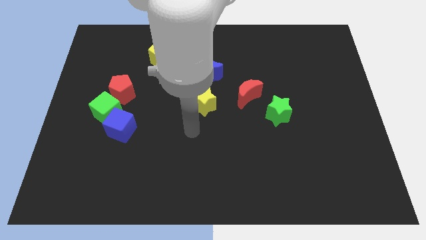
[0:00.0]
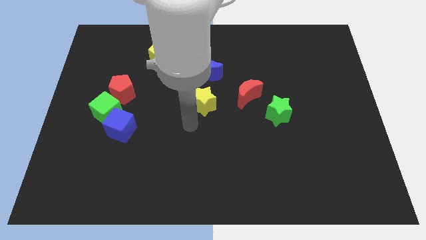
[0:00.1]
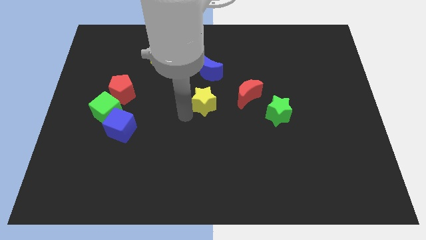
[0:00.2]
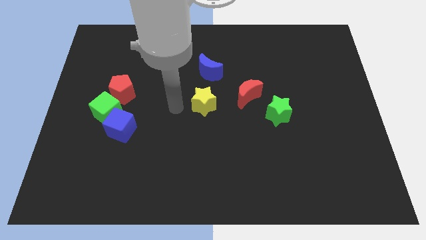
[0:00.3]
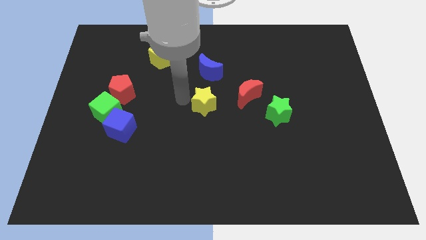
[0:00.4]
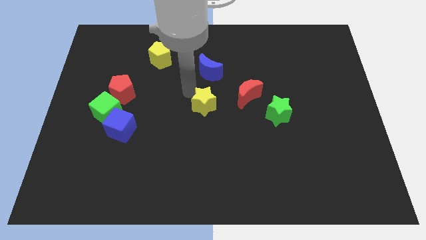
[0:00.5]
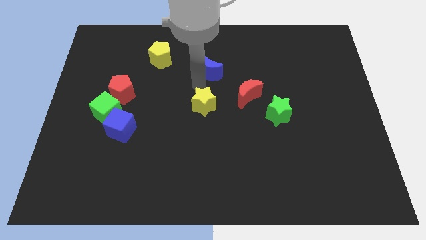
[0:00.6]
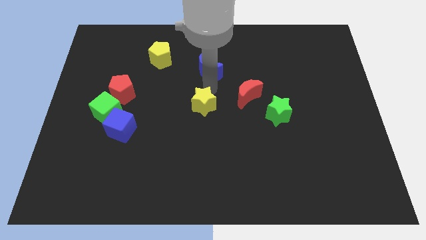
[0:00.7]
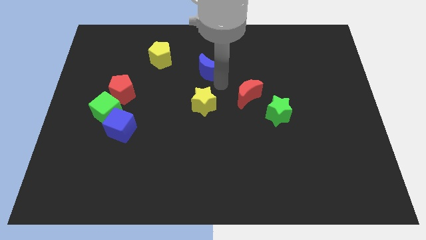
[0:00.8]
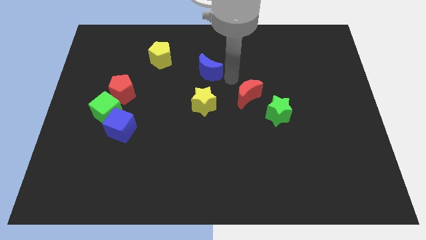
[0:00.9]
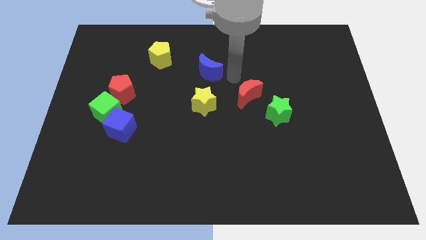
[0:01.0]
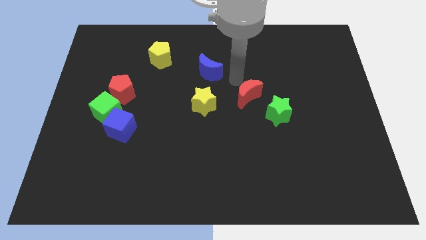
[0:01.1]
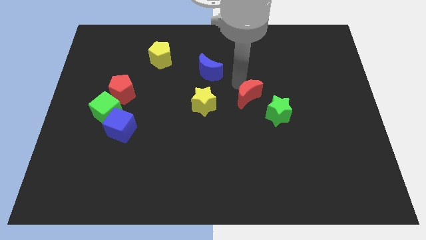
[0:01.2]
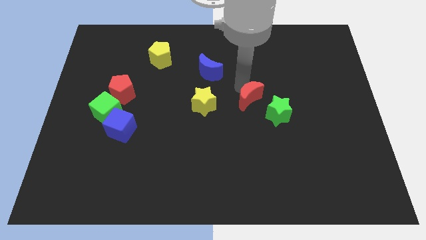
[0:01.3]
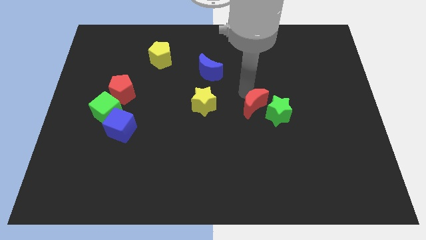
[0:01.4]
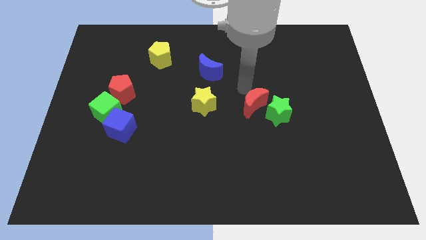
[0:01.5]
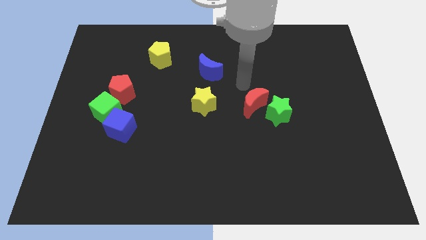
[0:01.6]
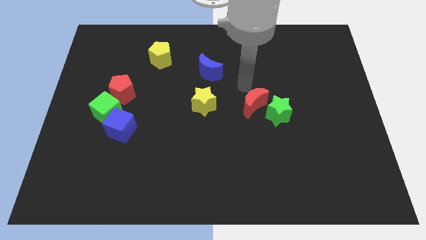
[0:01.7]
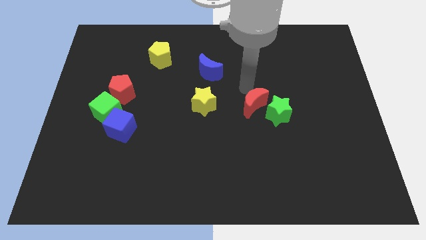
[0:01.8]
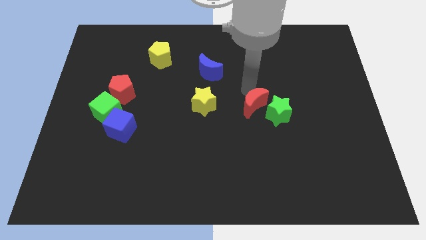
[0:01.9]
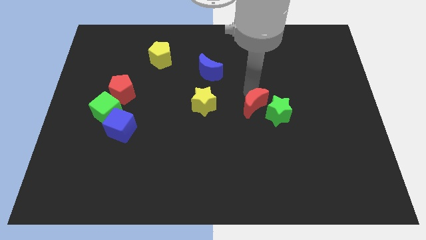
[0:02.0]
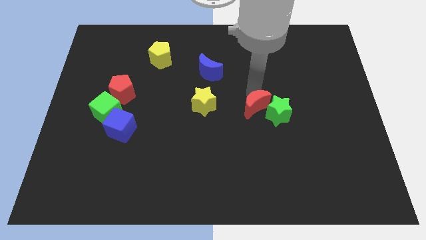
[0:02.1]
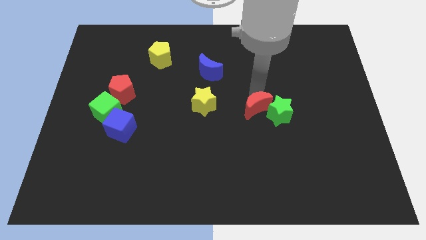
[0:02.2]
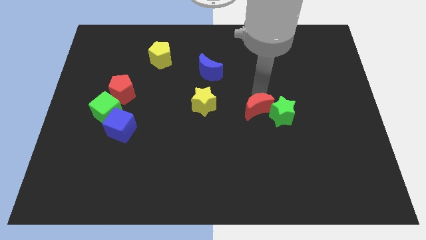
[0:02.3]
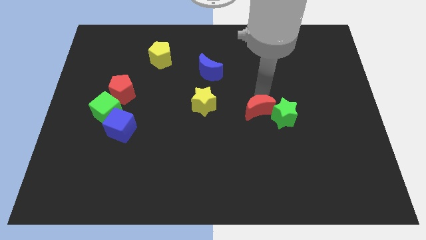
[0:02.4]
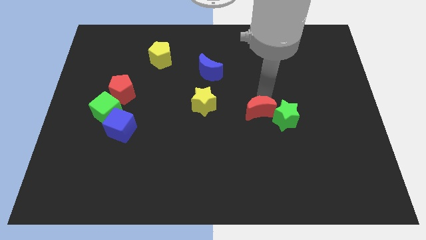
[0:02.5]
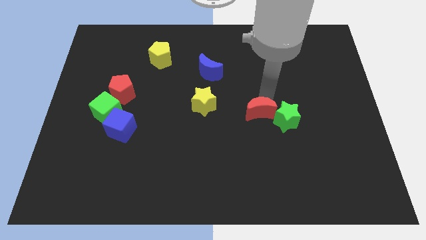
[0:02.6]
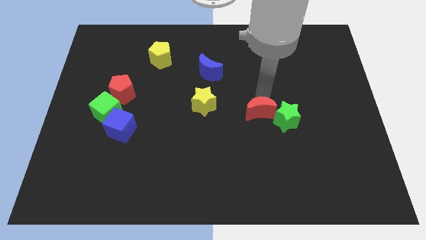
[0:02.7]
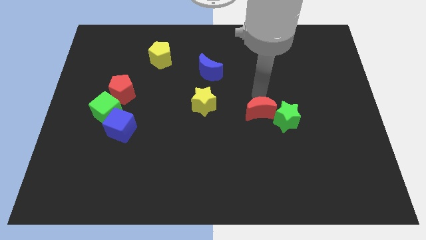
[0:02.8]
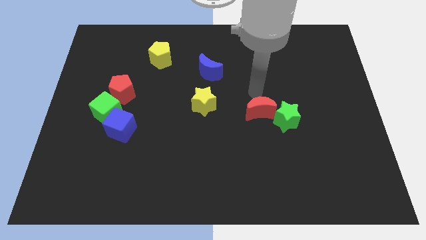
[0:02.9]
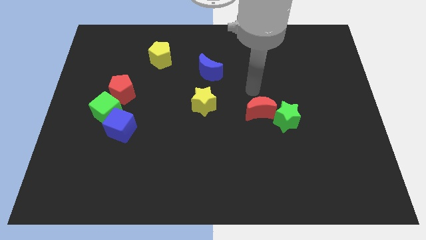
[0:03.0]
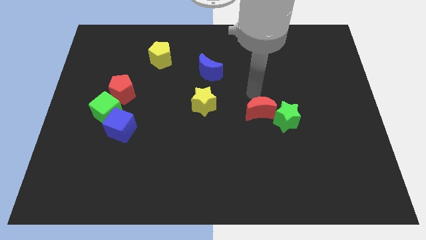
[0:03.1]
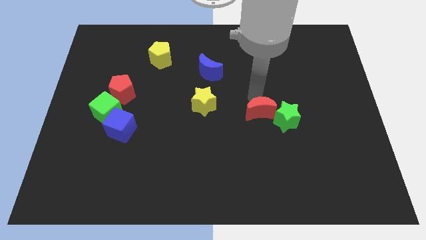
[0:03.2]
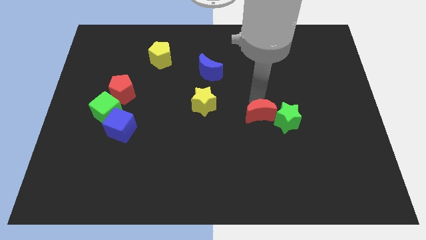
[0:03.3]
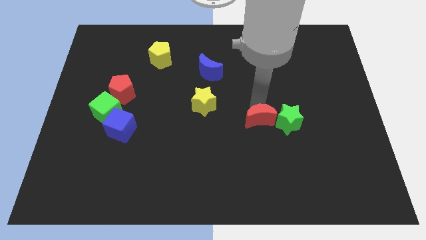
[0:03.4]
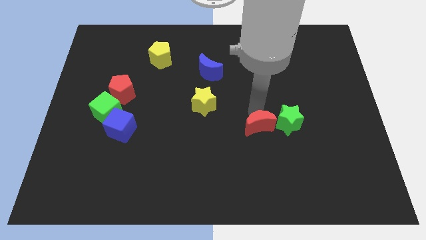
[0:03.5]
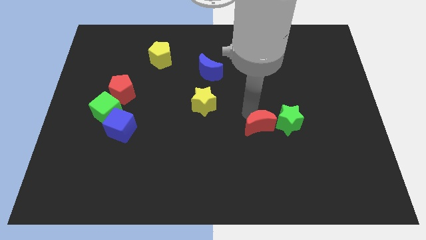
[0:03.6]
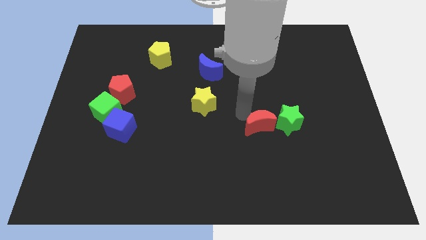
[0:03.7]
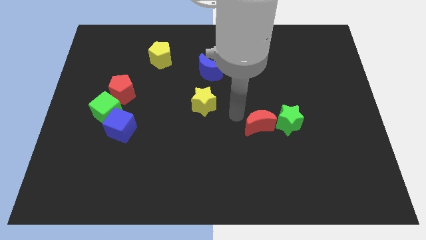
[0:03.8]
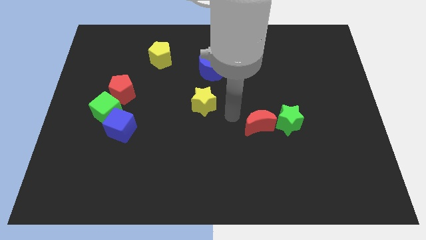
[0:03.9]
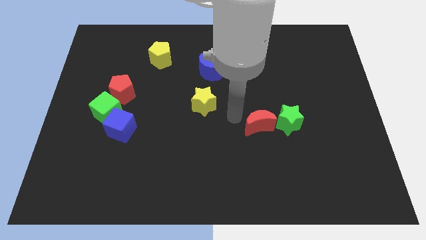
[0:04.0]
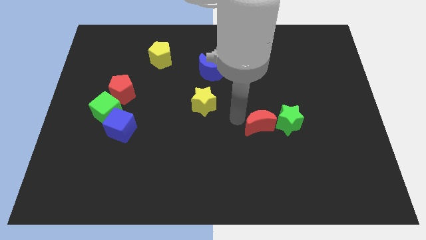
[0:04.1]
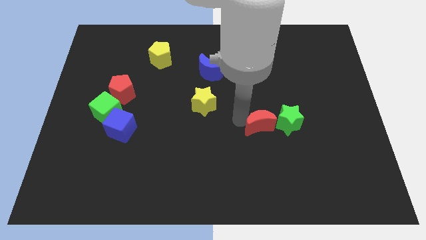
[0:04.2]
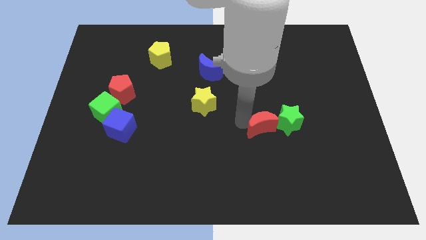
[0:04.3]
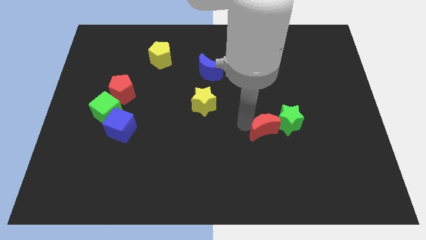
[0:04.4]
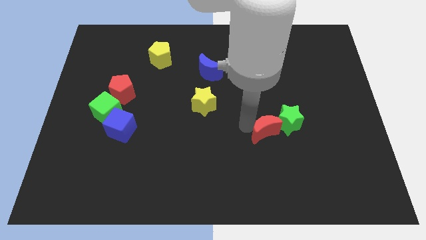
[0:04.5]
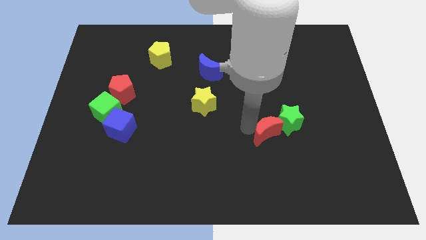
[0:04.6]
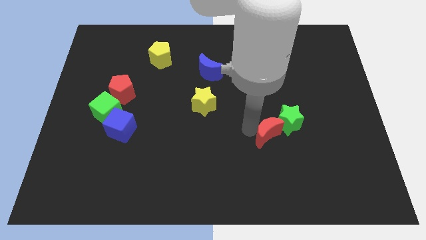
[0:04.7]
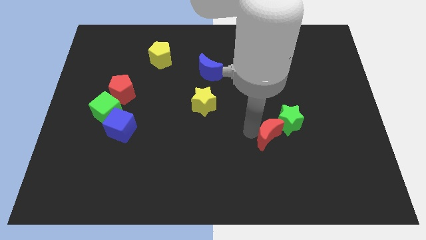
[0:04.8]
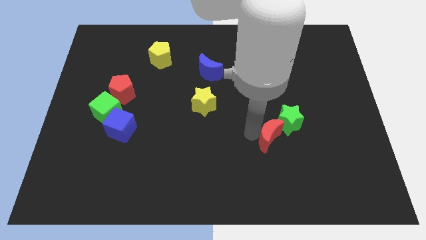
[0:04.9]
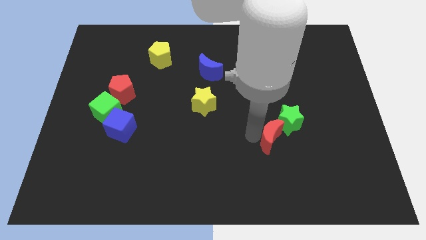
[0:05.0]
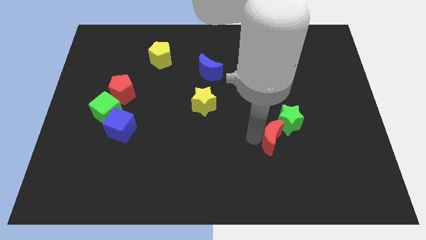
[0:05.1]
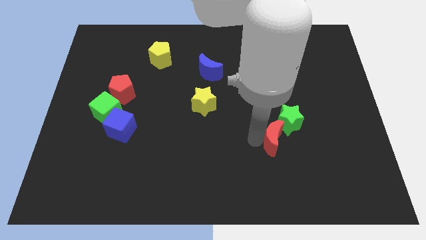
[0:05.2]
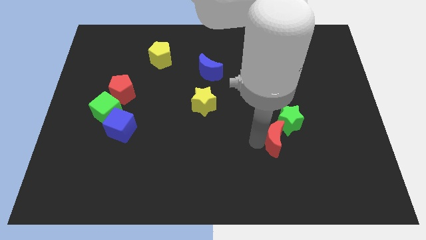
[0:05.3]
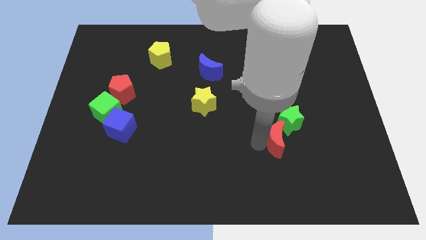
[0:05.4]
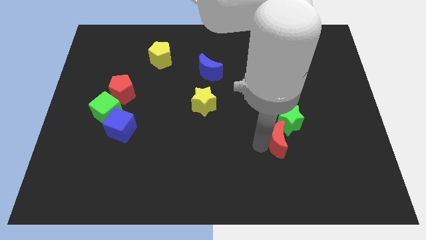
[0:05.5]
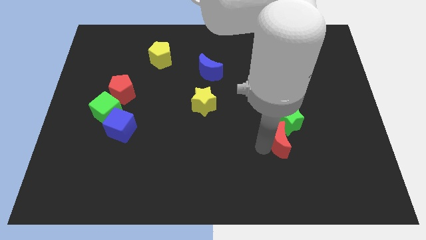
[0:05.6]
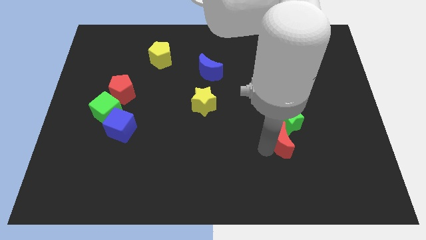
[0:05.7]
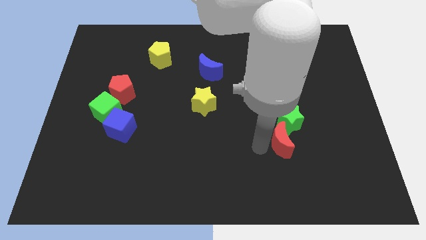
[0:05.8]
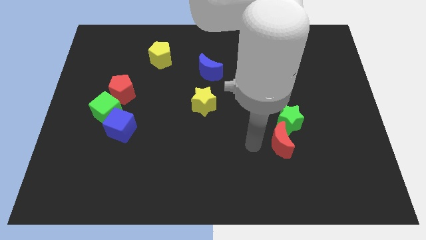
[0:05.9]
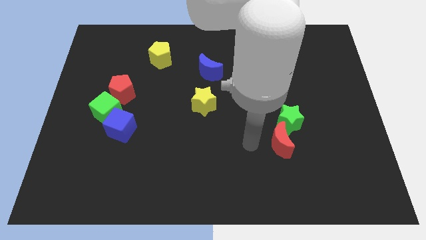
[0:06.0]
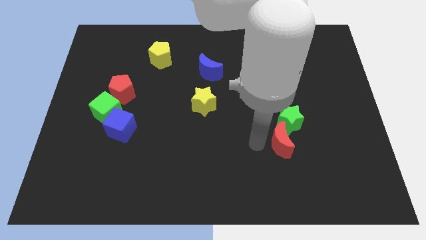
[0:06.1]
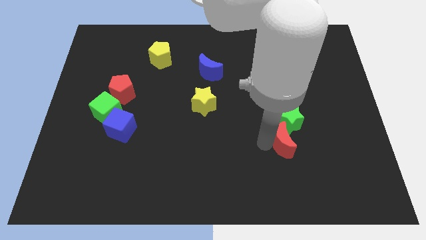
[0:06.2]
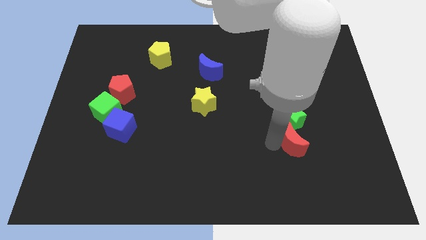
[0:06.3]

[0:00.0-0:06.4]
move the red moon diagonally down and to the right of the green star

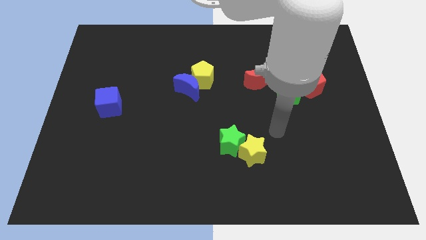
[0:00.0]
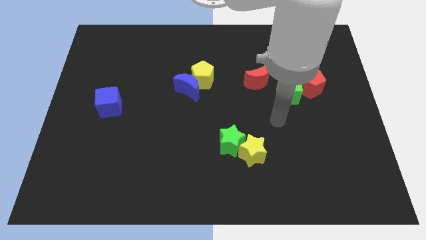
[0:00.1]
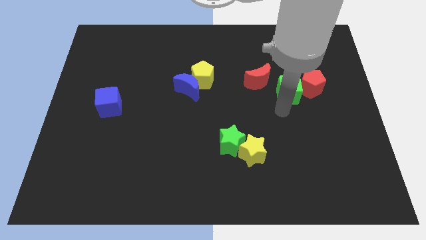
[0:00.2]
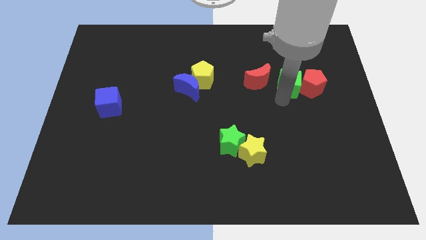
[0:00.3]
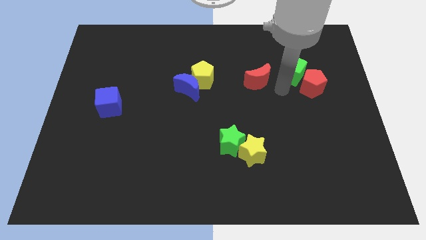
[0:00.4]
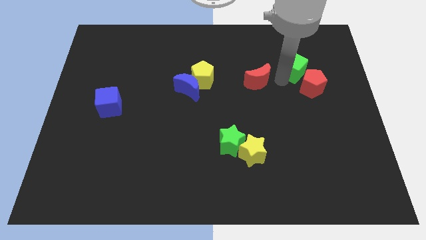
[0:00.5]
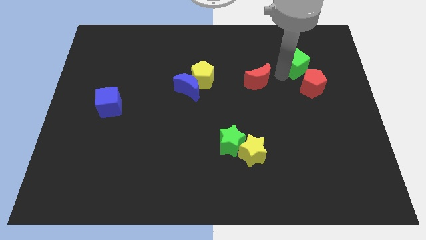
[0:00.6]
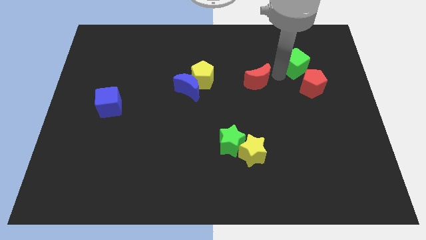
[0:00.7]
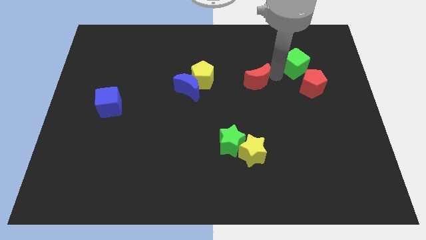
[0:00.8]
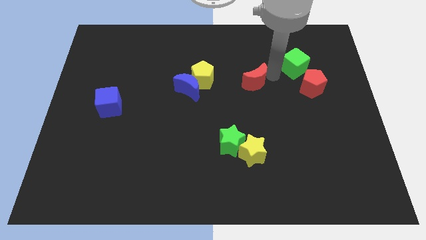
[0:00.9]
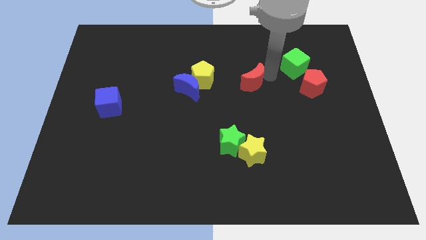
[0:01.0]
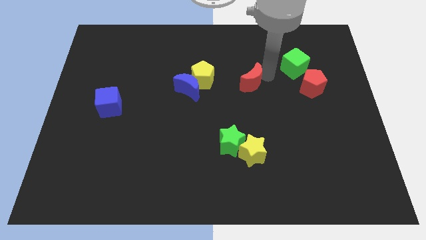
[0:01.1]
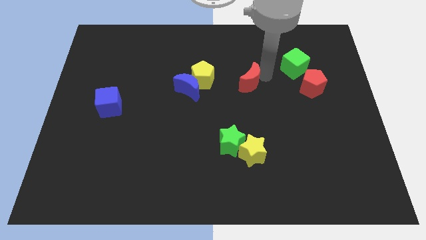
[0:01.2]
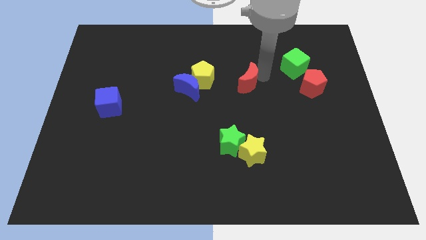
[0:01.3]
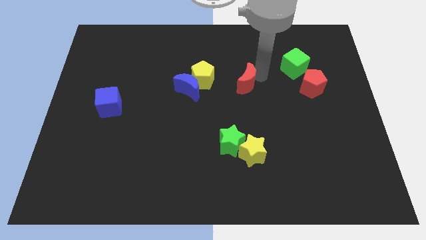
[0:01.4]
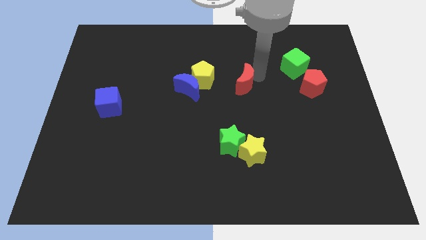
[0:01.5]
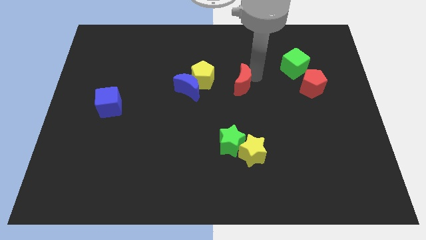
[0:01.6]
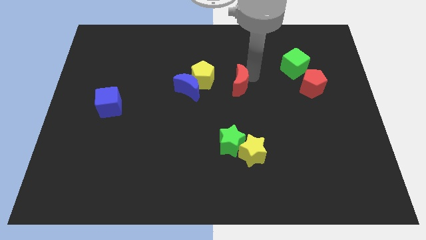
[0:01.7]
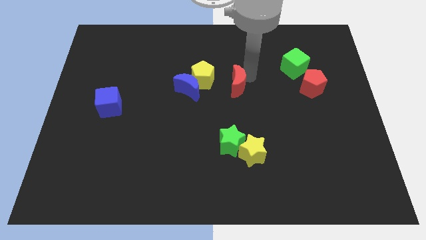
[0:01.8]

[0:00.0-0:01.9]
push the red moon to the bottom right side of the yellow pentagon
